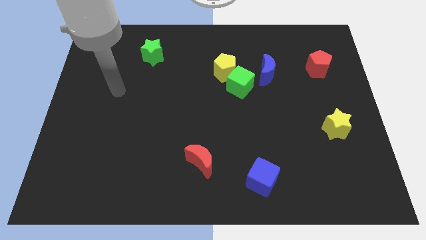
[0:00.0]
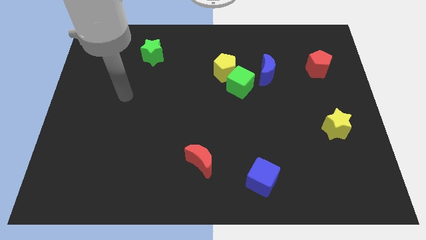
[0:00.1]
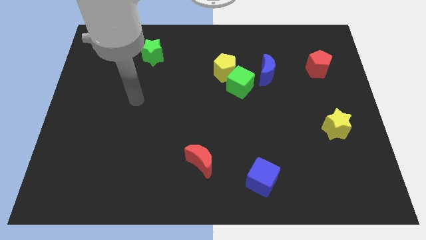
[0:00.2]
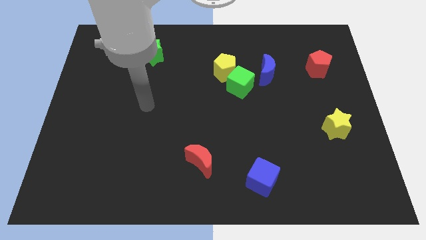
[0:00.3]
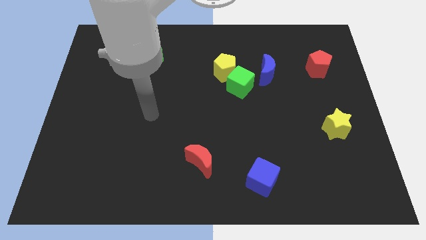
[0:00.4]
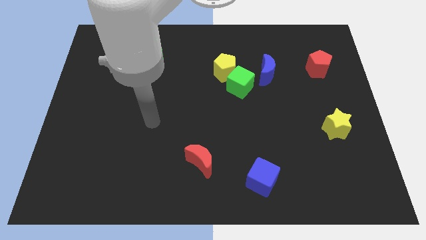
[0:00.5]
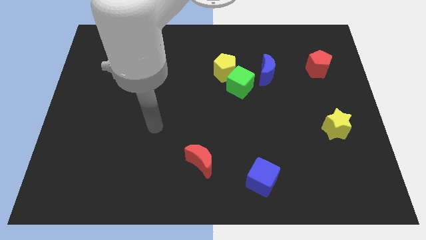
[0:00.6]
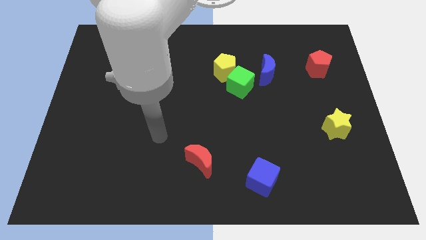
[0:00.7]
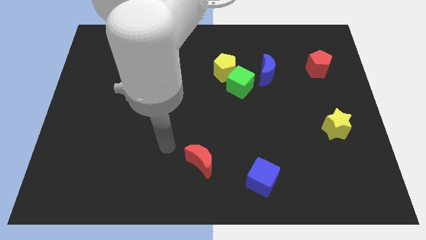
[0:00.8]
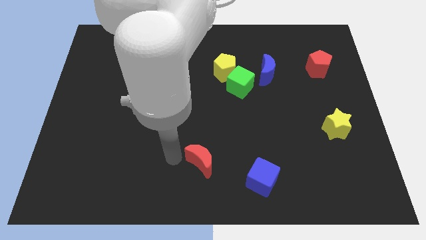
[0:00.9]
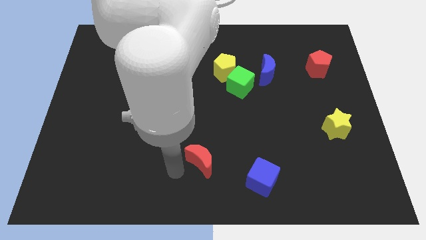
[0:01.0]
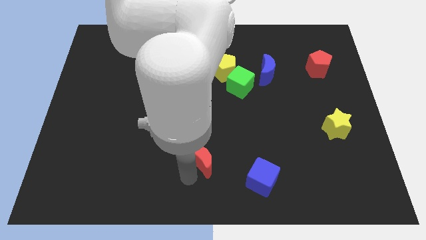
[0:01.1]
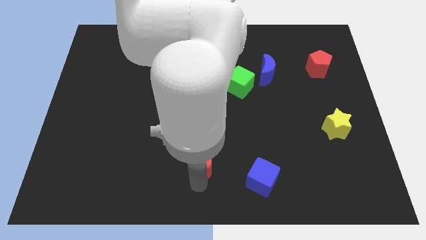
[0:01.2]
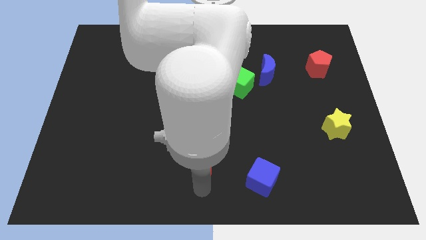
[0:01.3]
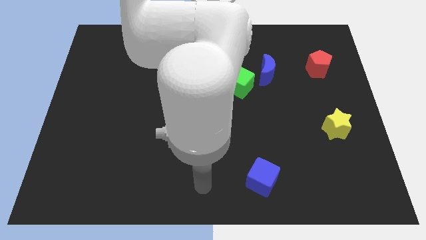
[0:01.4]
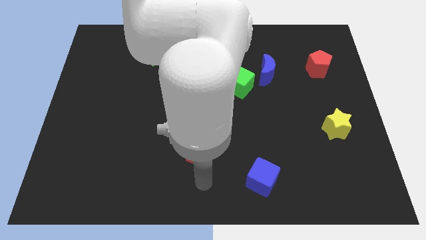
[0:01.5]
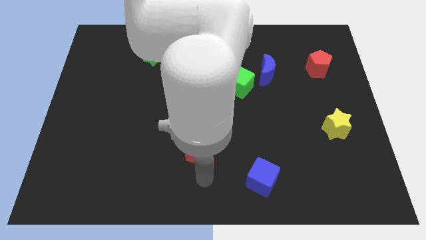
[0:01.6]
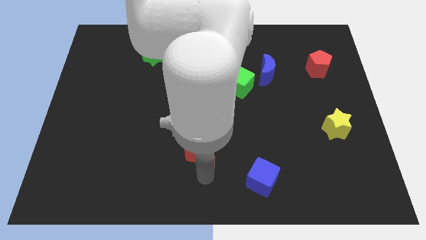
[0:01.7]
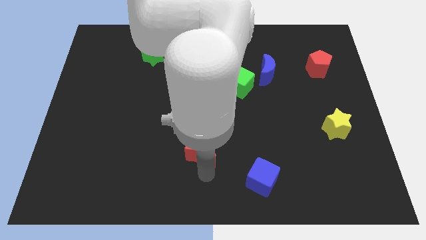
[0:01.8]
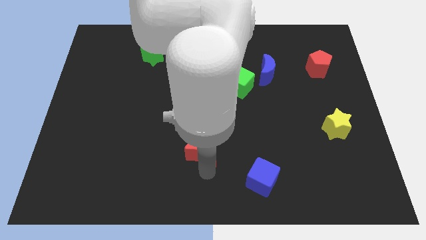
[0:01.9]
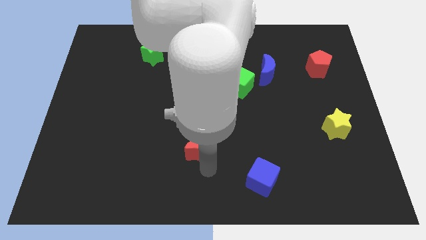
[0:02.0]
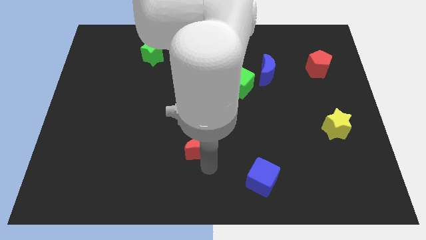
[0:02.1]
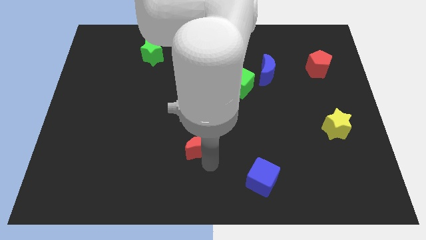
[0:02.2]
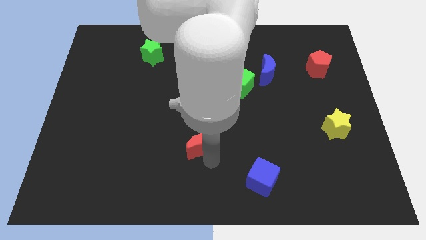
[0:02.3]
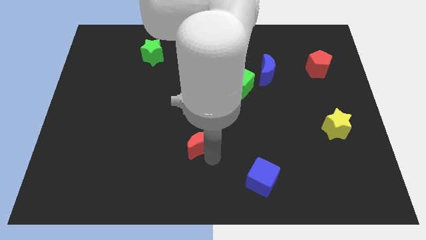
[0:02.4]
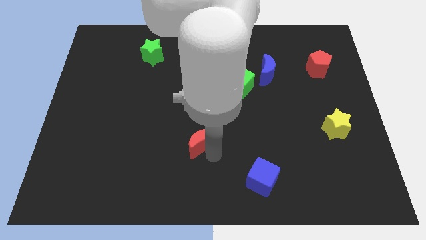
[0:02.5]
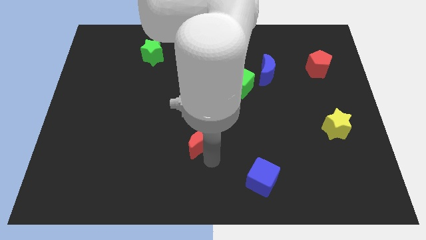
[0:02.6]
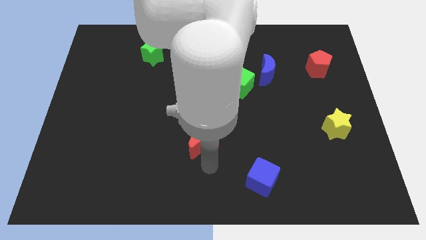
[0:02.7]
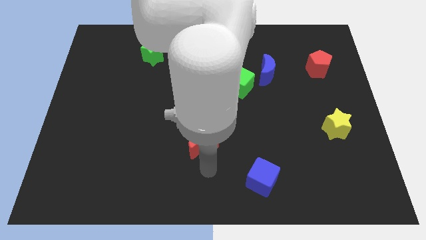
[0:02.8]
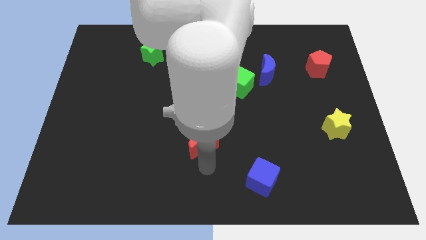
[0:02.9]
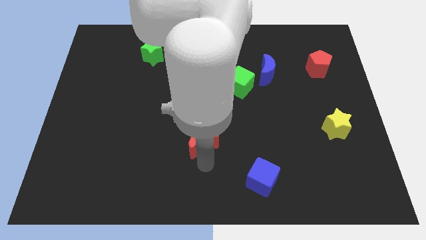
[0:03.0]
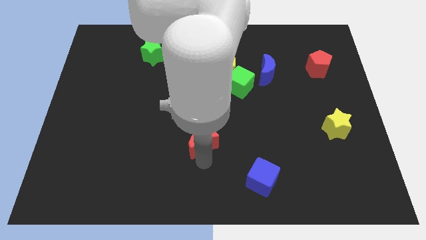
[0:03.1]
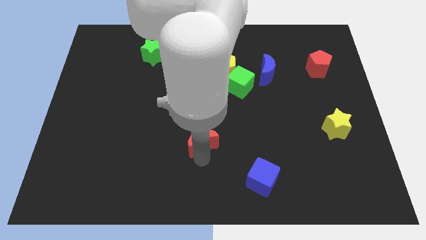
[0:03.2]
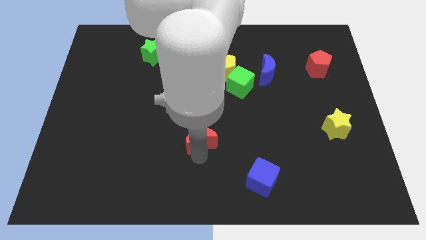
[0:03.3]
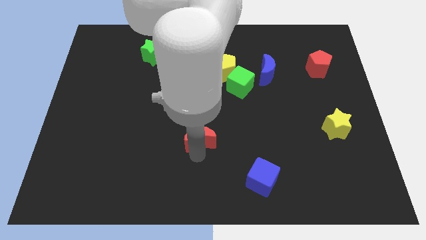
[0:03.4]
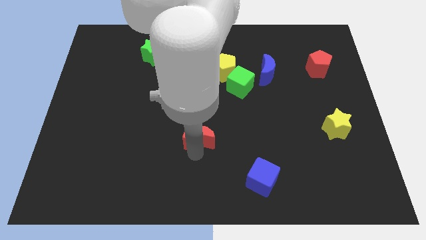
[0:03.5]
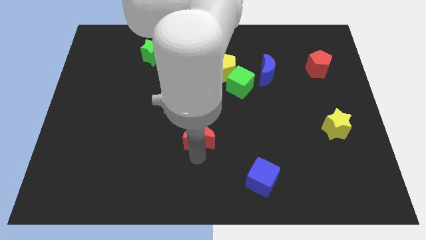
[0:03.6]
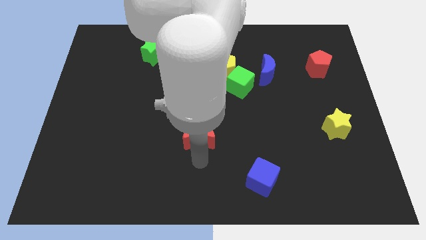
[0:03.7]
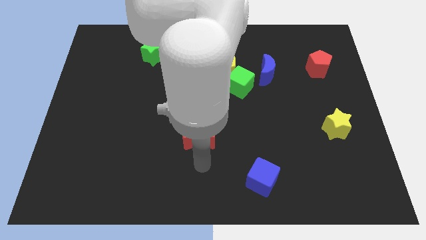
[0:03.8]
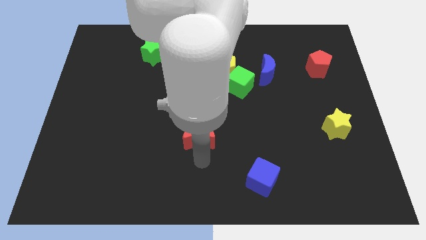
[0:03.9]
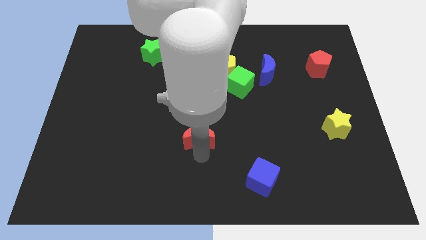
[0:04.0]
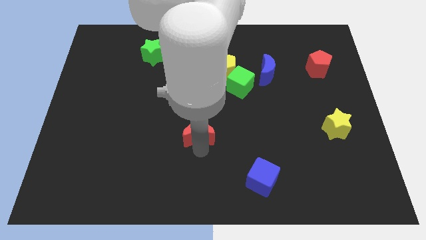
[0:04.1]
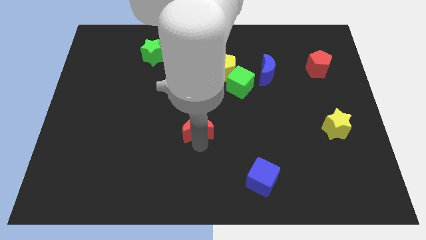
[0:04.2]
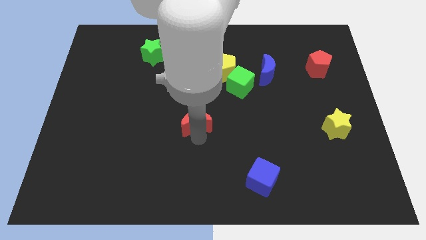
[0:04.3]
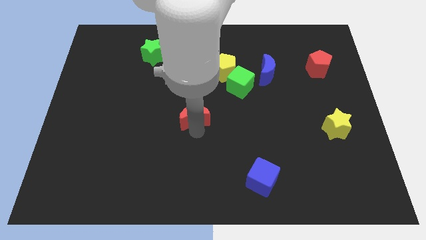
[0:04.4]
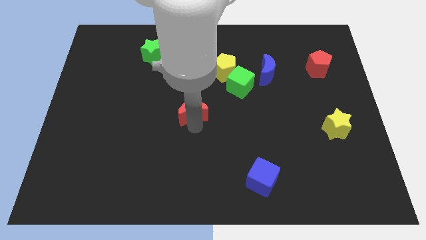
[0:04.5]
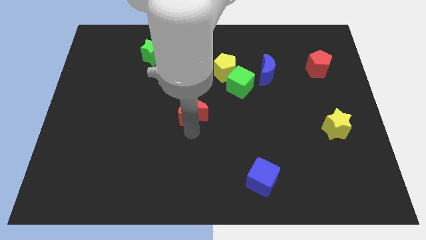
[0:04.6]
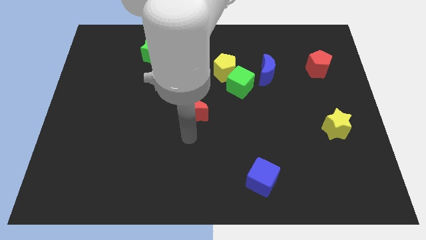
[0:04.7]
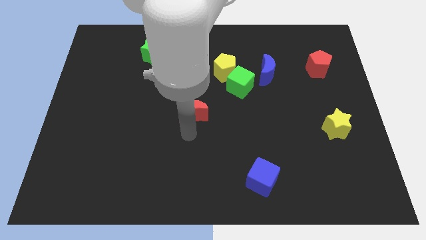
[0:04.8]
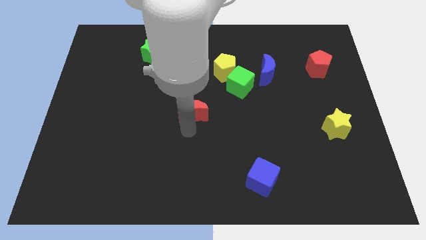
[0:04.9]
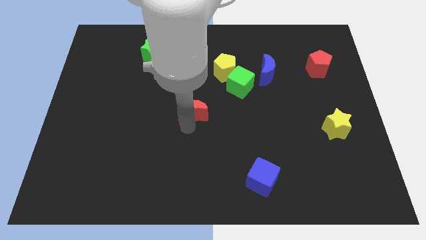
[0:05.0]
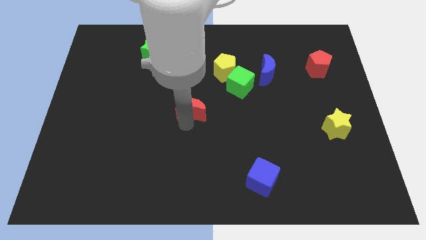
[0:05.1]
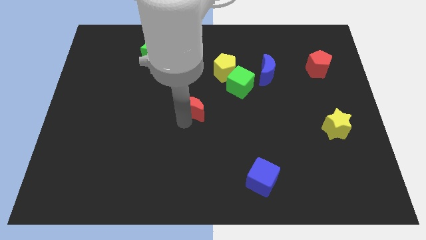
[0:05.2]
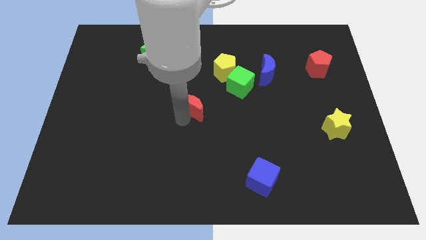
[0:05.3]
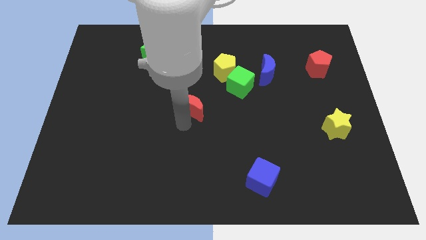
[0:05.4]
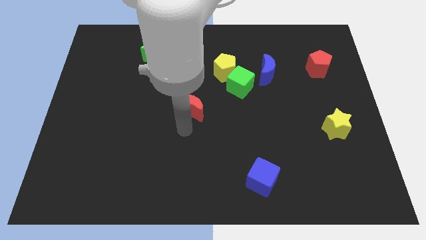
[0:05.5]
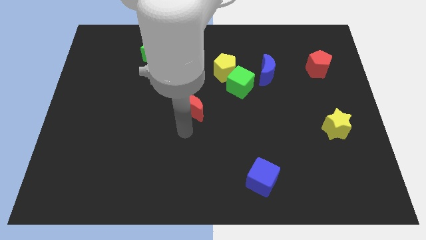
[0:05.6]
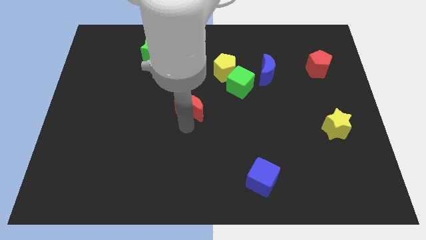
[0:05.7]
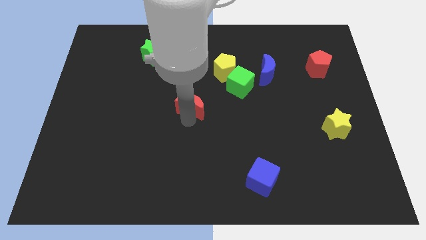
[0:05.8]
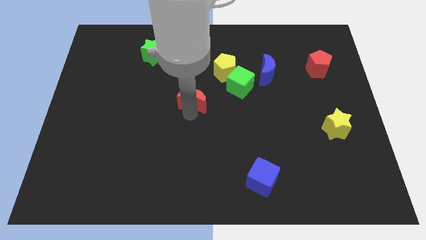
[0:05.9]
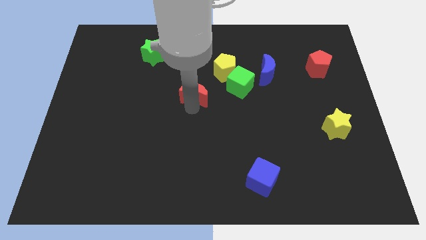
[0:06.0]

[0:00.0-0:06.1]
slide the red moon just left of the green cube

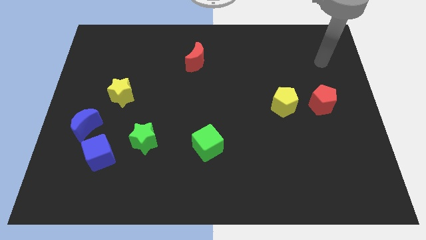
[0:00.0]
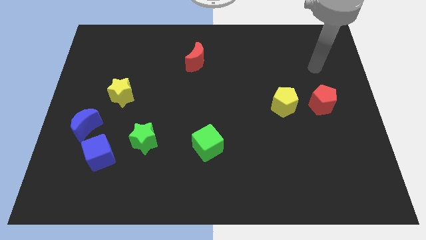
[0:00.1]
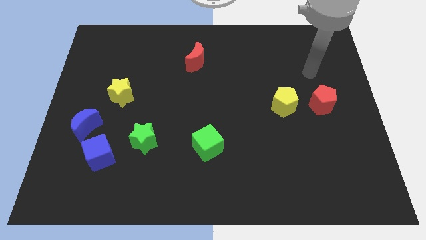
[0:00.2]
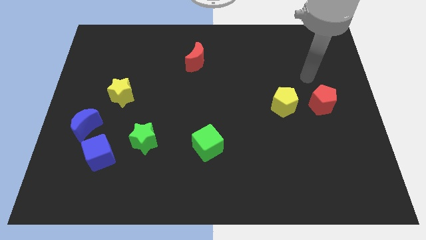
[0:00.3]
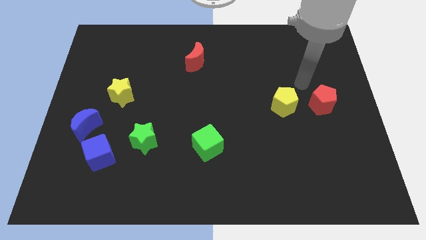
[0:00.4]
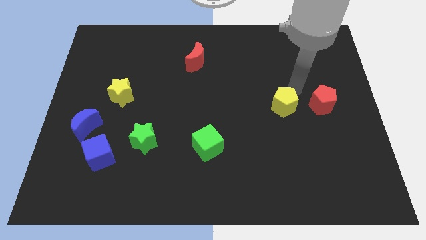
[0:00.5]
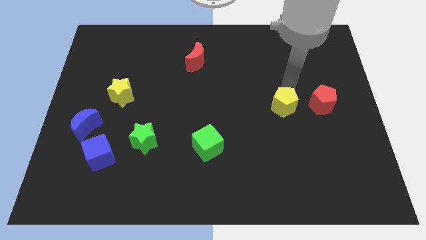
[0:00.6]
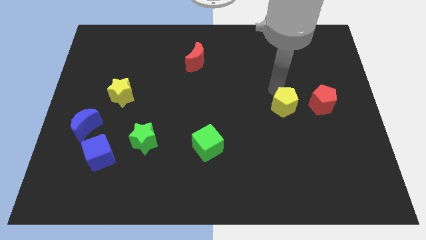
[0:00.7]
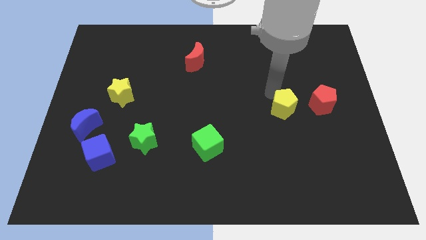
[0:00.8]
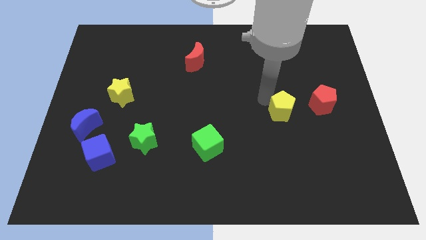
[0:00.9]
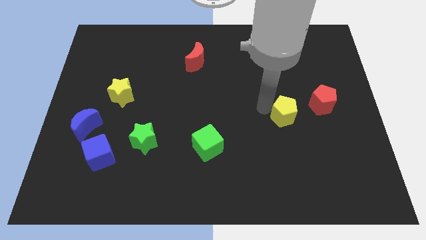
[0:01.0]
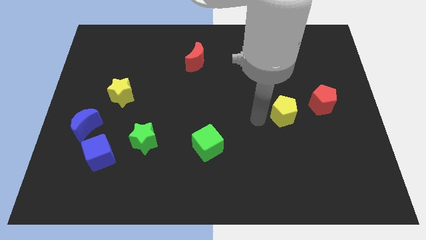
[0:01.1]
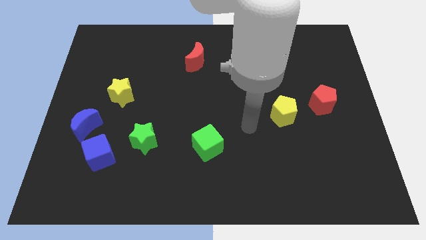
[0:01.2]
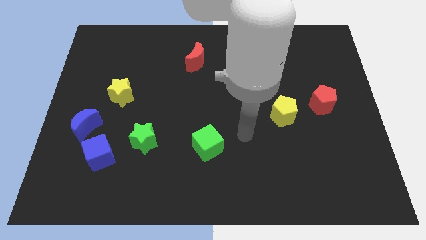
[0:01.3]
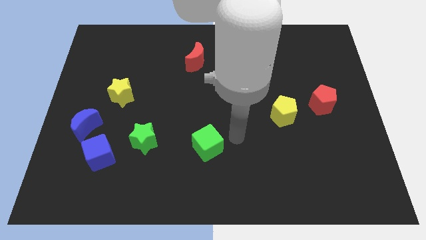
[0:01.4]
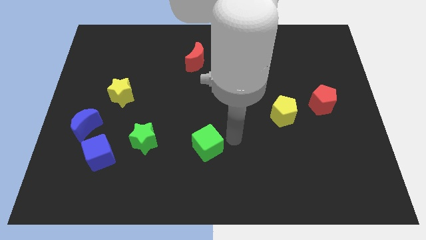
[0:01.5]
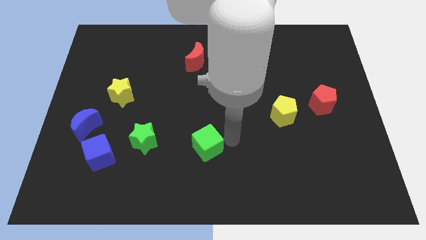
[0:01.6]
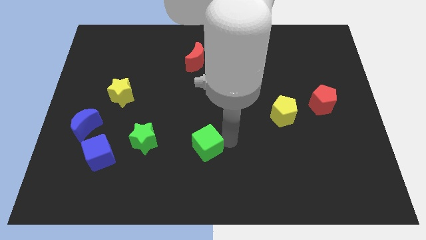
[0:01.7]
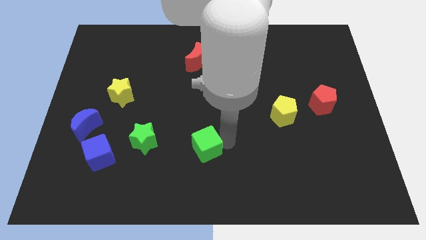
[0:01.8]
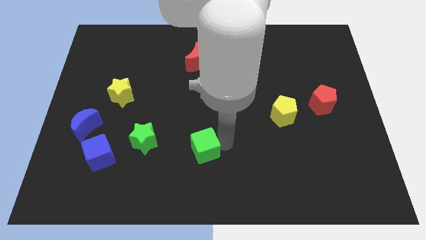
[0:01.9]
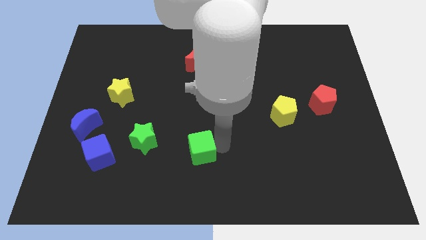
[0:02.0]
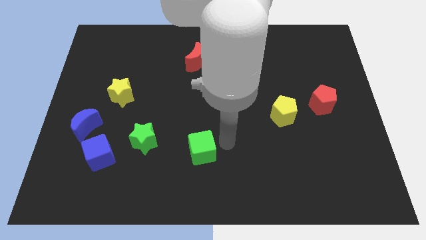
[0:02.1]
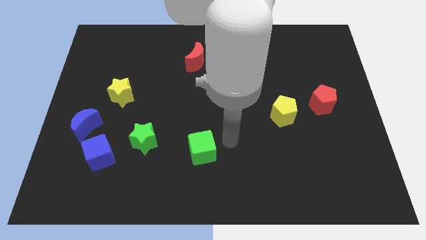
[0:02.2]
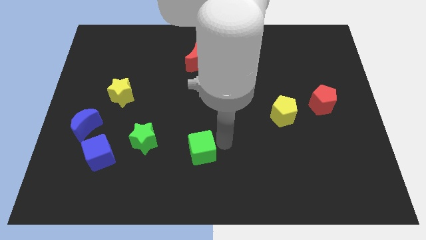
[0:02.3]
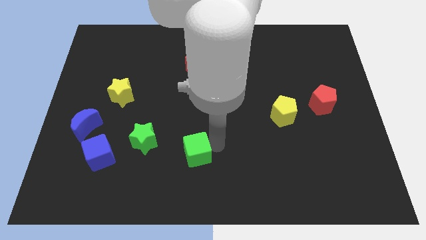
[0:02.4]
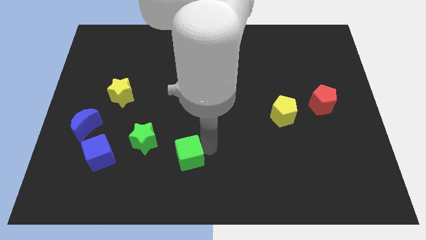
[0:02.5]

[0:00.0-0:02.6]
push the green cube diagonally down and to the right of the green star
